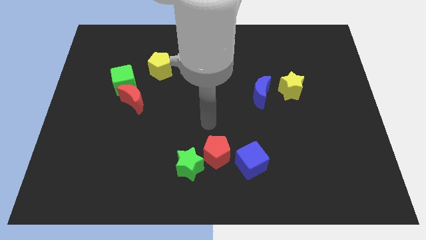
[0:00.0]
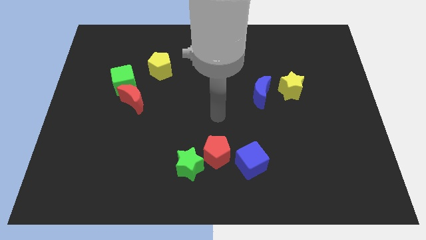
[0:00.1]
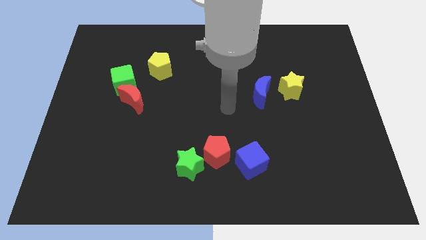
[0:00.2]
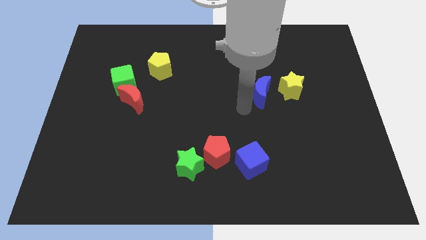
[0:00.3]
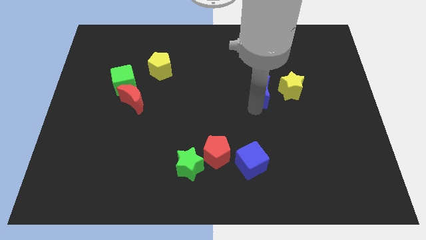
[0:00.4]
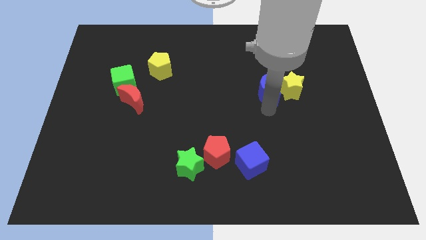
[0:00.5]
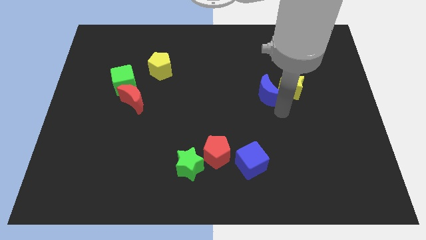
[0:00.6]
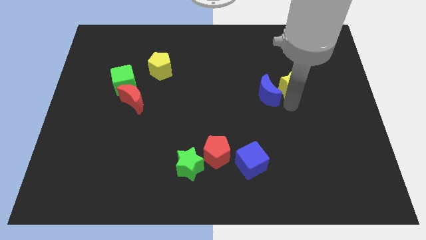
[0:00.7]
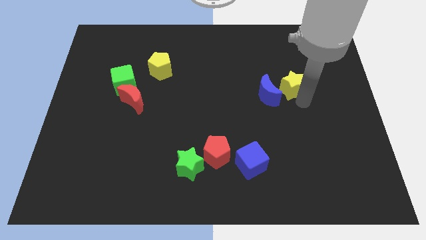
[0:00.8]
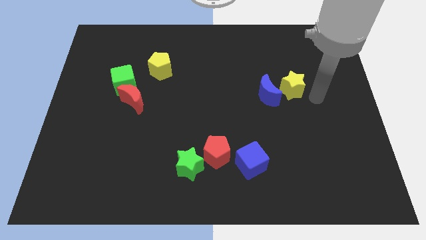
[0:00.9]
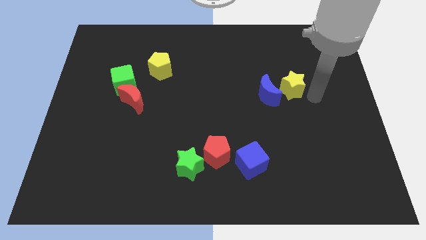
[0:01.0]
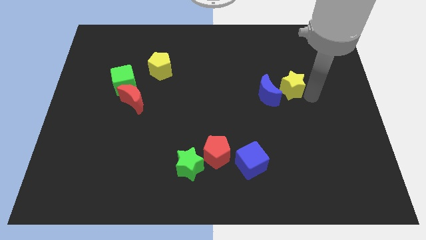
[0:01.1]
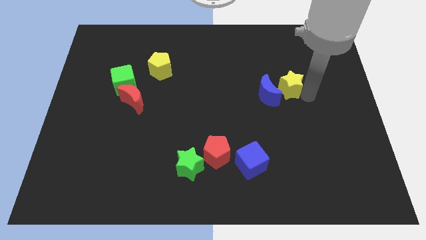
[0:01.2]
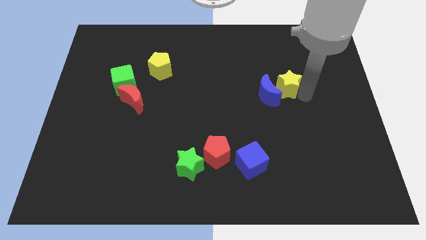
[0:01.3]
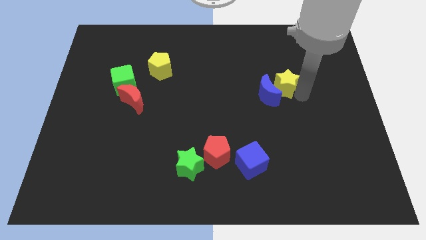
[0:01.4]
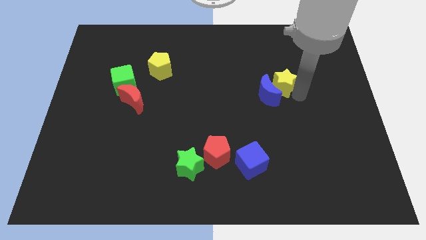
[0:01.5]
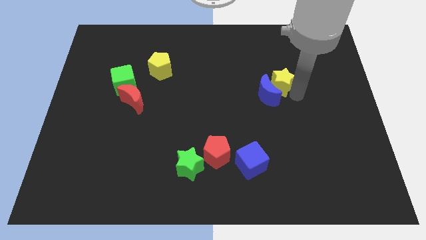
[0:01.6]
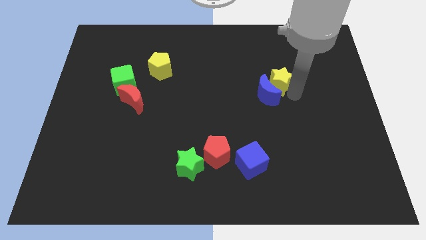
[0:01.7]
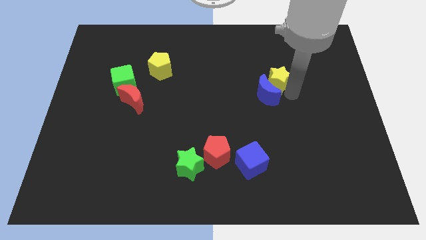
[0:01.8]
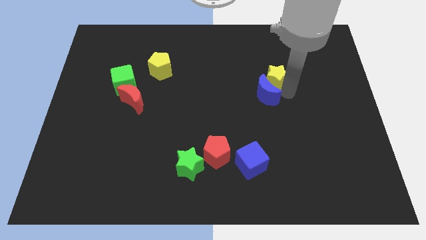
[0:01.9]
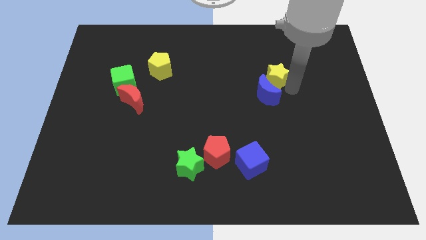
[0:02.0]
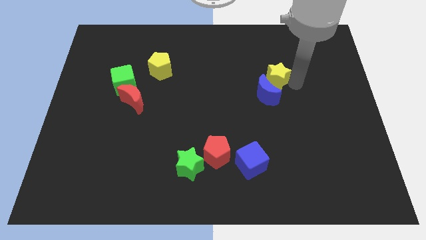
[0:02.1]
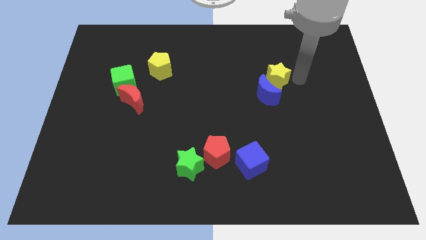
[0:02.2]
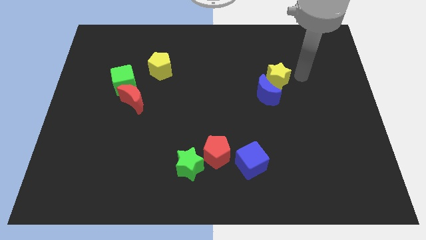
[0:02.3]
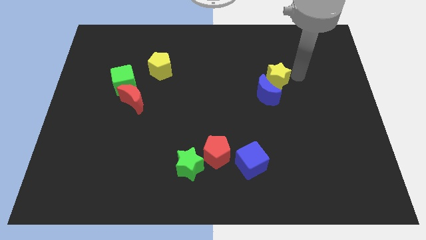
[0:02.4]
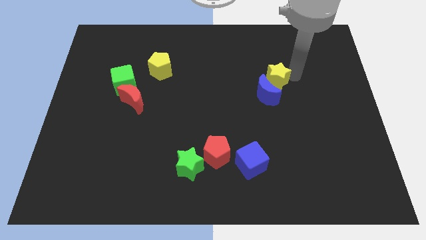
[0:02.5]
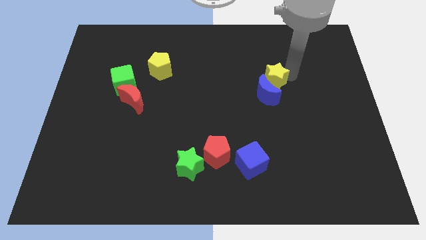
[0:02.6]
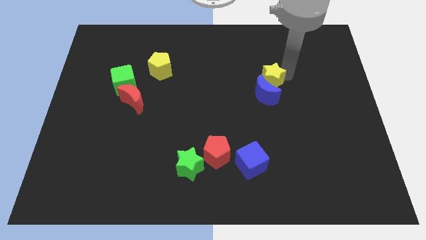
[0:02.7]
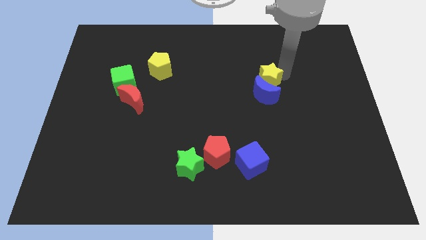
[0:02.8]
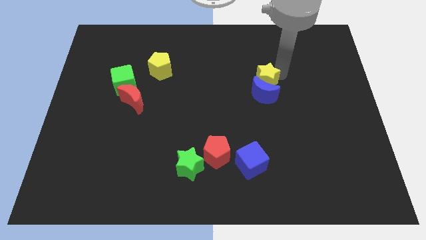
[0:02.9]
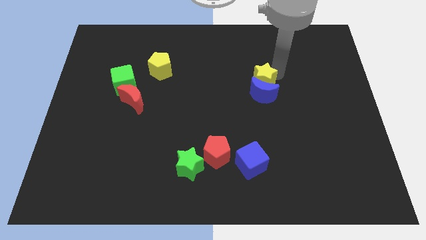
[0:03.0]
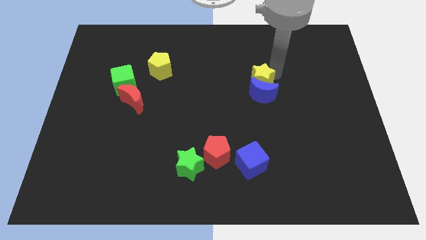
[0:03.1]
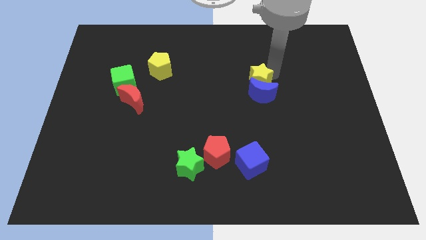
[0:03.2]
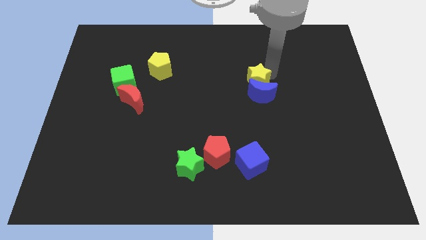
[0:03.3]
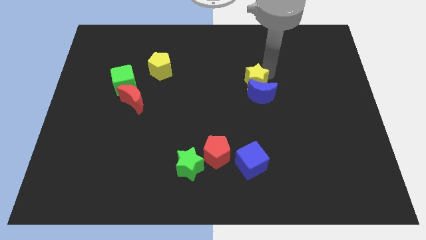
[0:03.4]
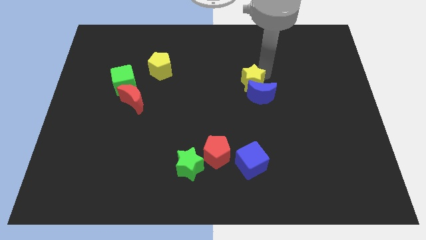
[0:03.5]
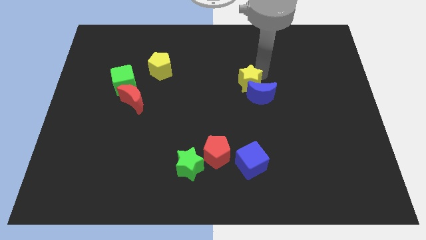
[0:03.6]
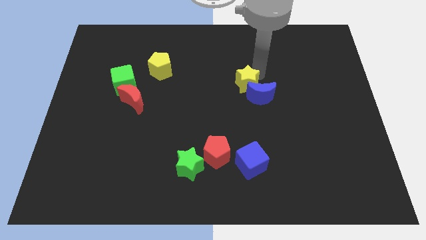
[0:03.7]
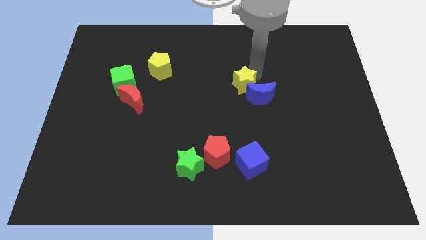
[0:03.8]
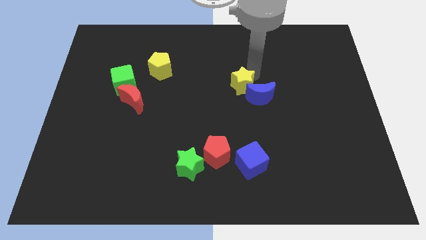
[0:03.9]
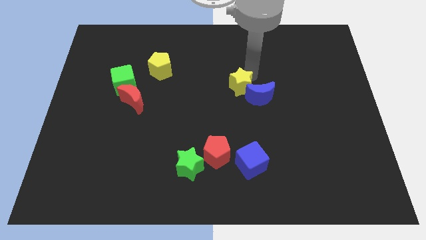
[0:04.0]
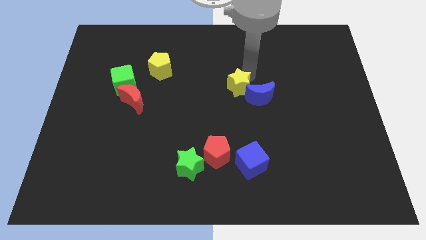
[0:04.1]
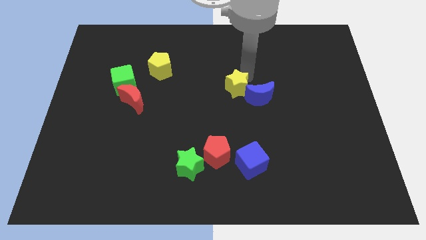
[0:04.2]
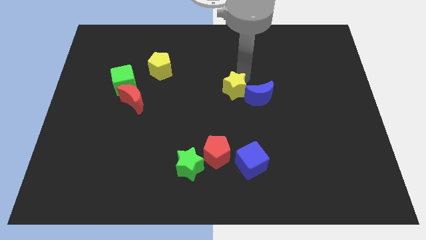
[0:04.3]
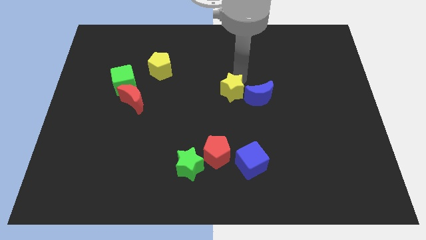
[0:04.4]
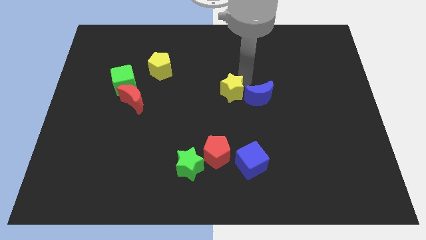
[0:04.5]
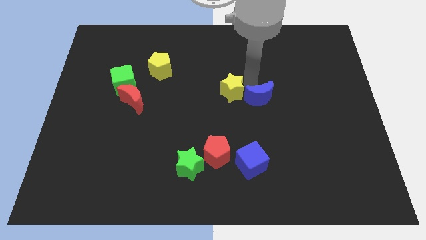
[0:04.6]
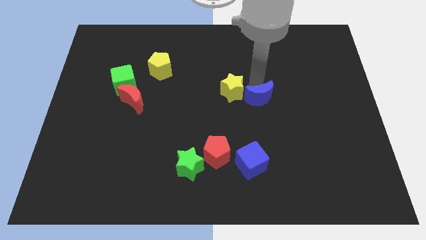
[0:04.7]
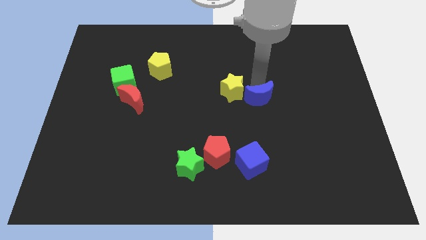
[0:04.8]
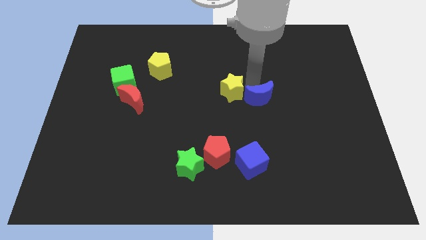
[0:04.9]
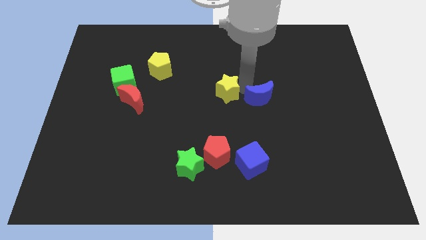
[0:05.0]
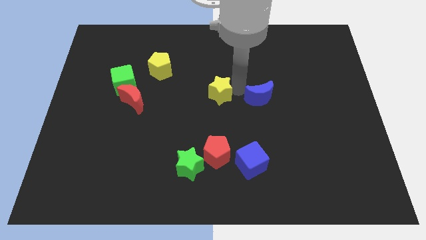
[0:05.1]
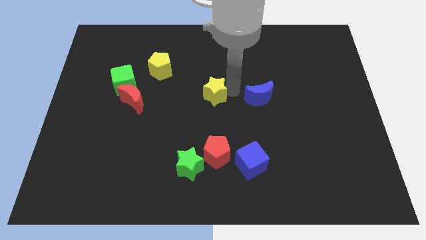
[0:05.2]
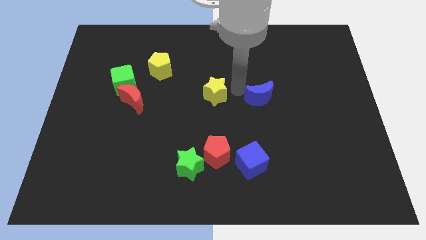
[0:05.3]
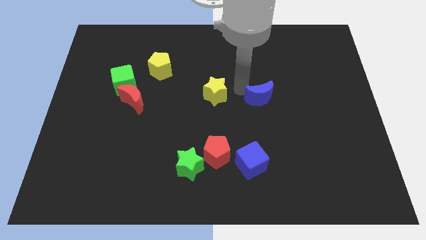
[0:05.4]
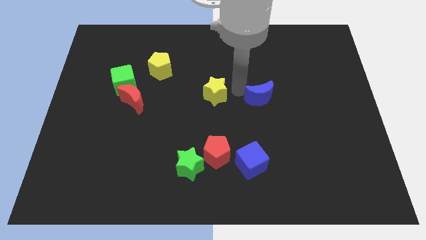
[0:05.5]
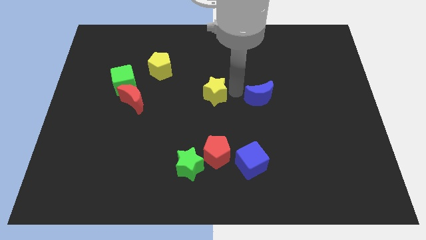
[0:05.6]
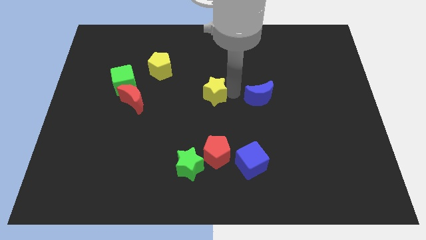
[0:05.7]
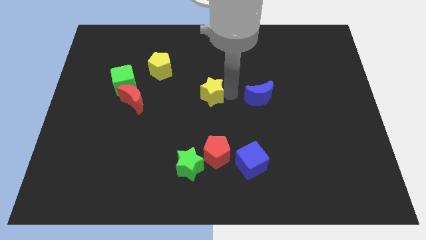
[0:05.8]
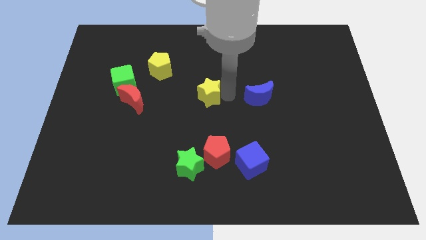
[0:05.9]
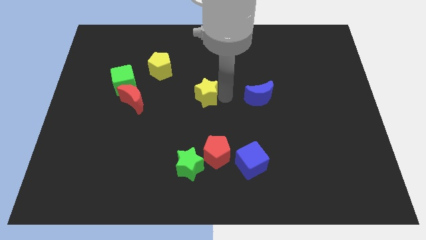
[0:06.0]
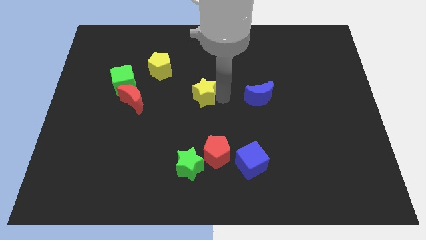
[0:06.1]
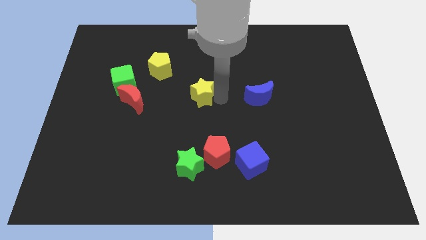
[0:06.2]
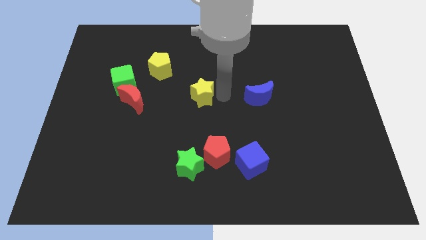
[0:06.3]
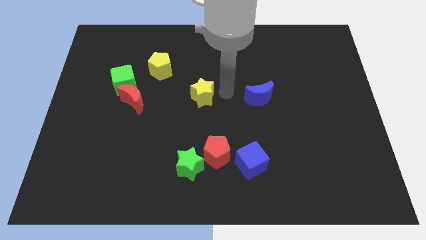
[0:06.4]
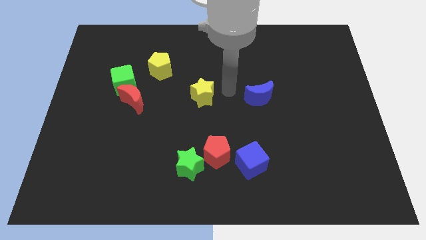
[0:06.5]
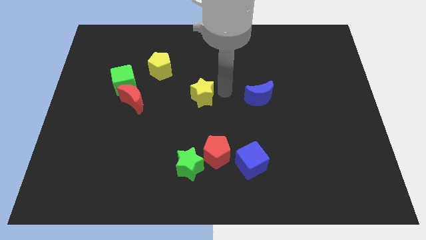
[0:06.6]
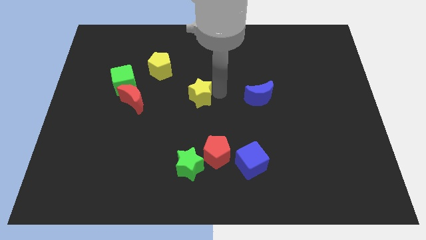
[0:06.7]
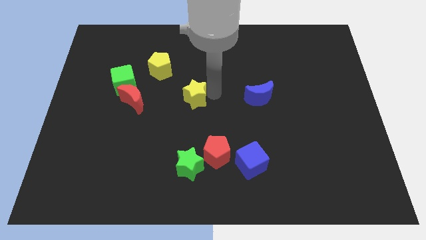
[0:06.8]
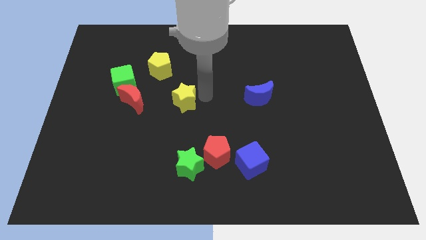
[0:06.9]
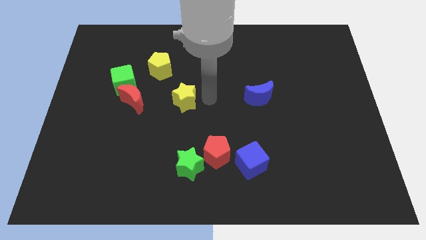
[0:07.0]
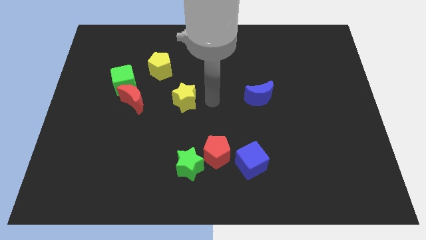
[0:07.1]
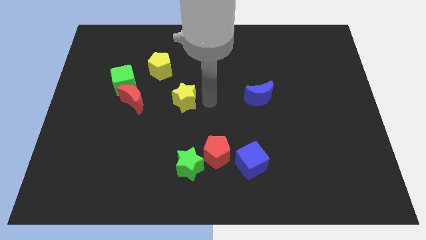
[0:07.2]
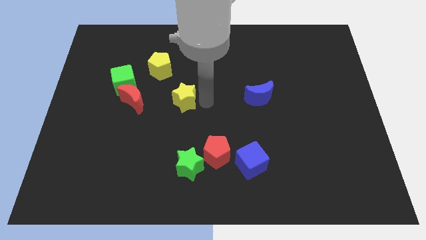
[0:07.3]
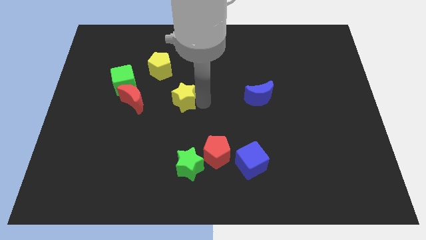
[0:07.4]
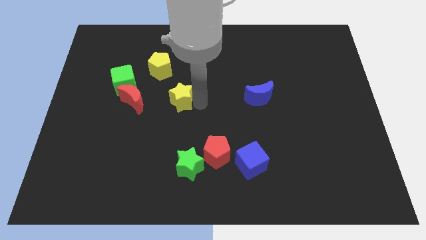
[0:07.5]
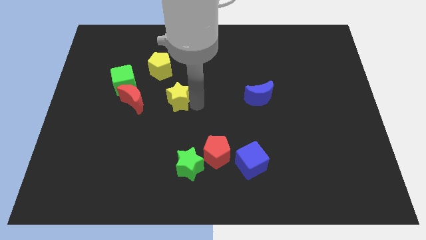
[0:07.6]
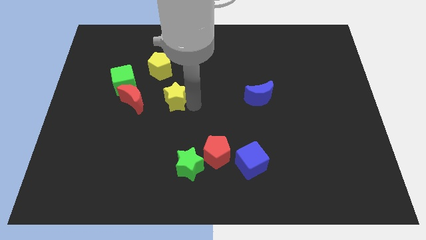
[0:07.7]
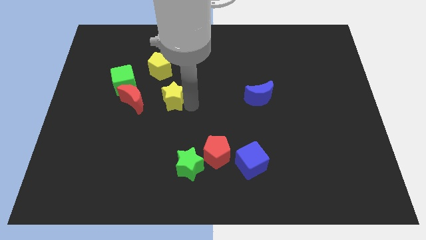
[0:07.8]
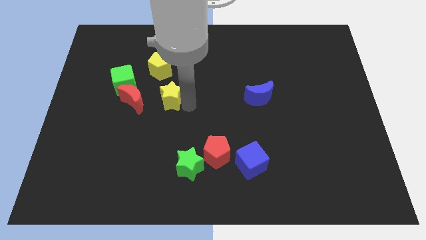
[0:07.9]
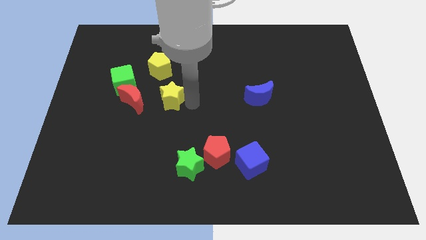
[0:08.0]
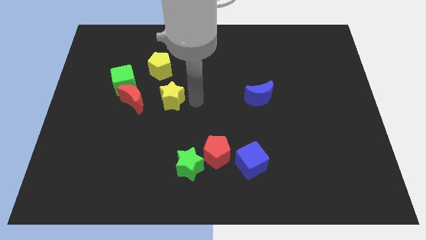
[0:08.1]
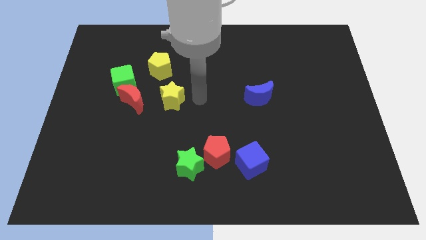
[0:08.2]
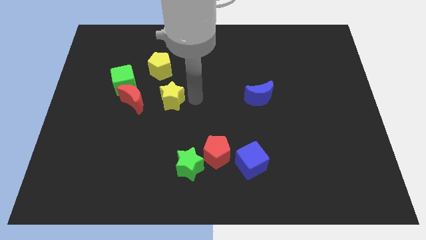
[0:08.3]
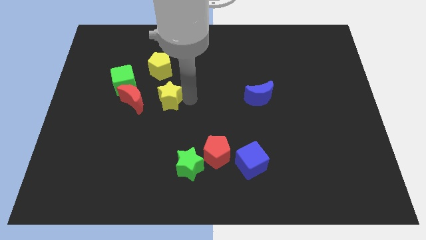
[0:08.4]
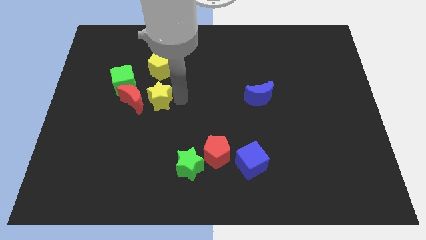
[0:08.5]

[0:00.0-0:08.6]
slide the yellow star to the red moon
